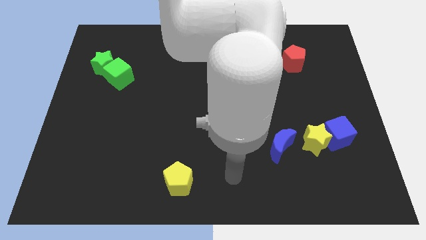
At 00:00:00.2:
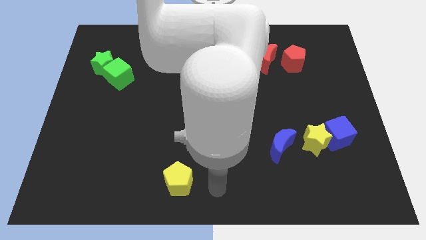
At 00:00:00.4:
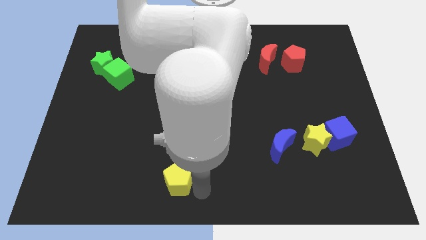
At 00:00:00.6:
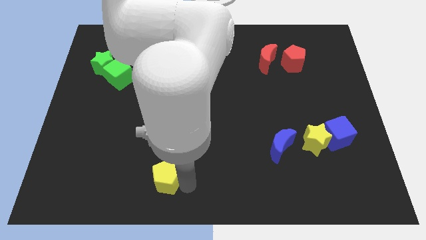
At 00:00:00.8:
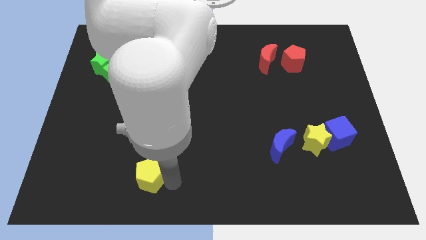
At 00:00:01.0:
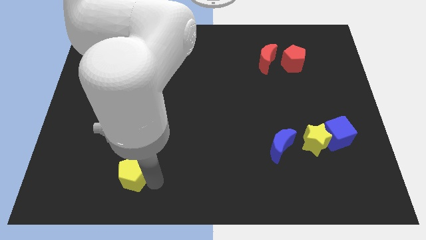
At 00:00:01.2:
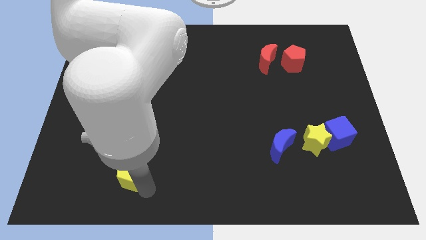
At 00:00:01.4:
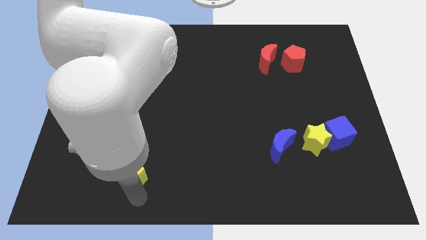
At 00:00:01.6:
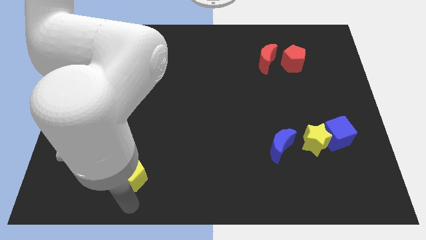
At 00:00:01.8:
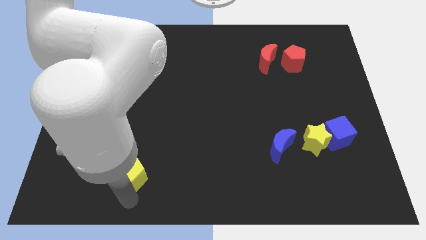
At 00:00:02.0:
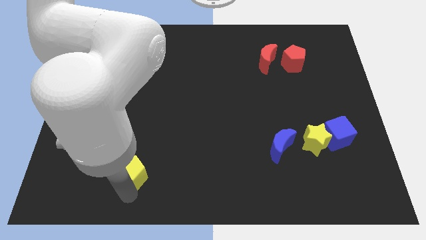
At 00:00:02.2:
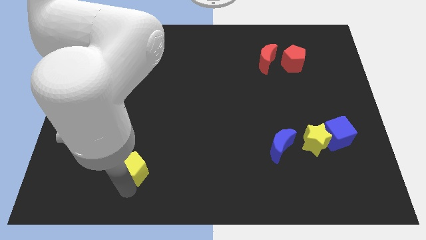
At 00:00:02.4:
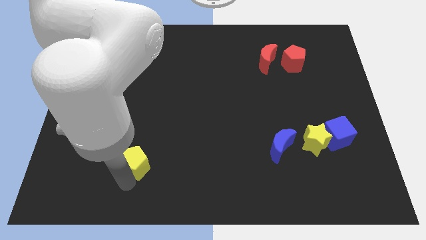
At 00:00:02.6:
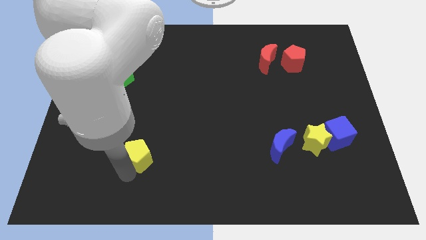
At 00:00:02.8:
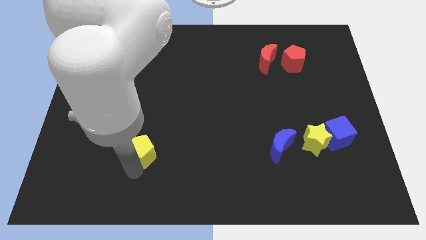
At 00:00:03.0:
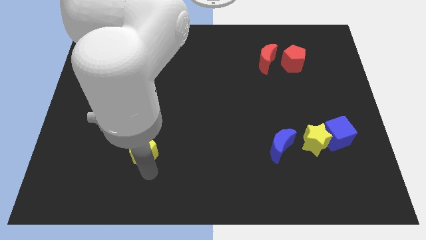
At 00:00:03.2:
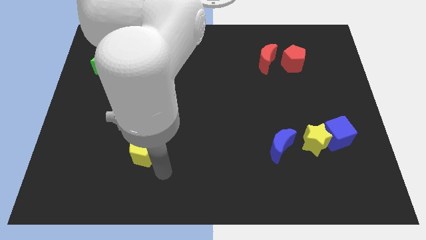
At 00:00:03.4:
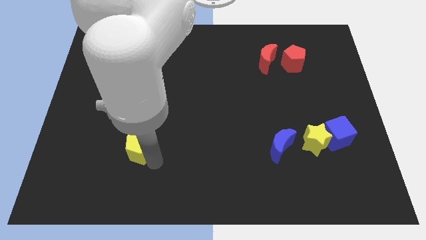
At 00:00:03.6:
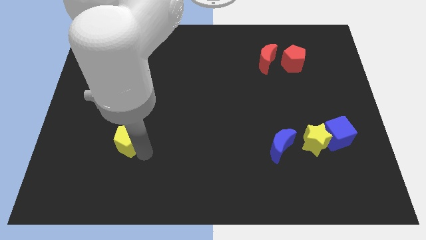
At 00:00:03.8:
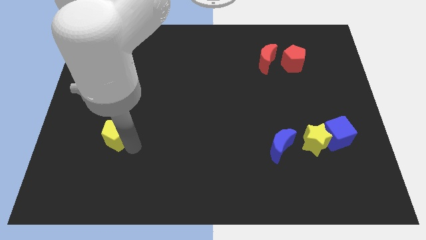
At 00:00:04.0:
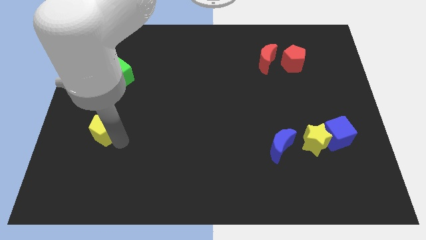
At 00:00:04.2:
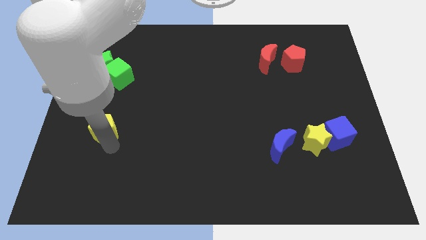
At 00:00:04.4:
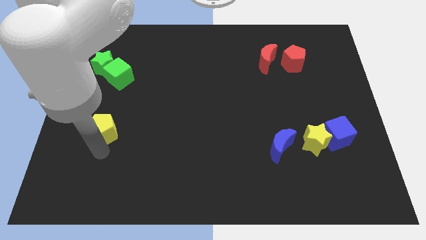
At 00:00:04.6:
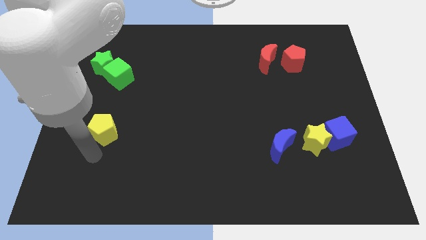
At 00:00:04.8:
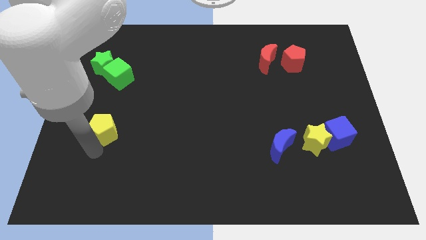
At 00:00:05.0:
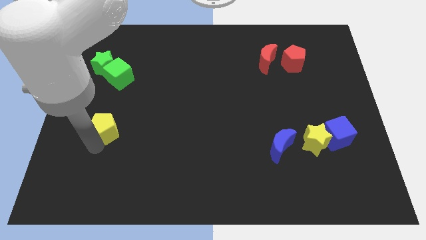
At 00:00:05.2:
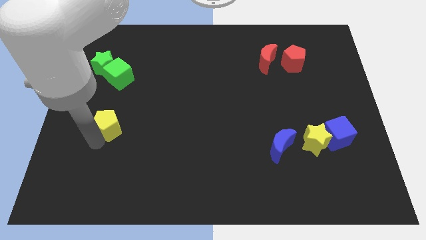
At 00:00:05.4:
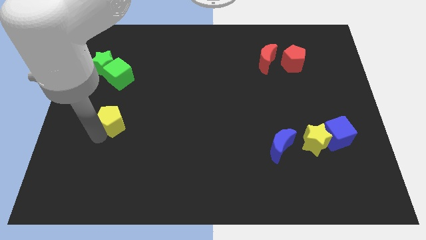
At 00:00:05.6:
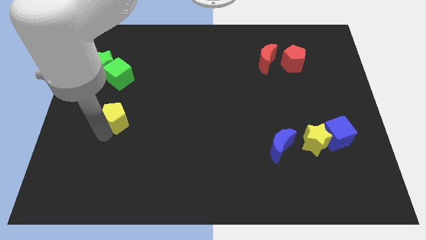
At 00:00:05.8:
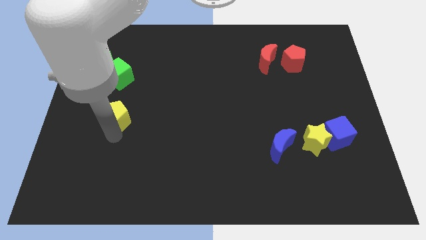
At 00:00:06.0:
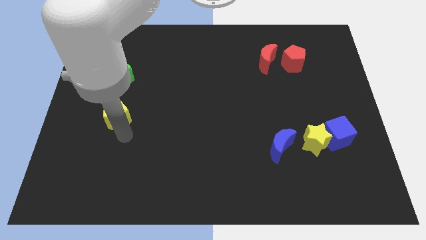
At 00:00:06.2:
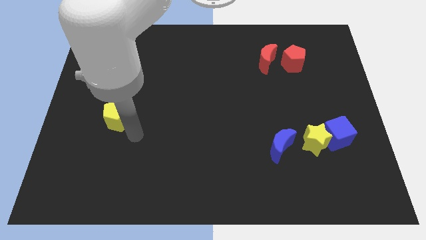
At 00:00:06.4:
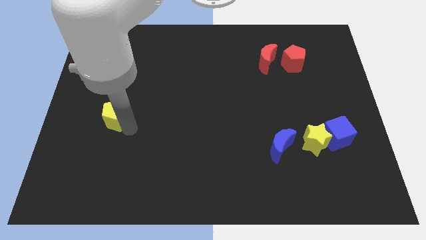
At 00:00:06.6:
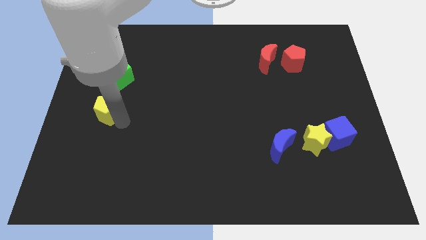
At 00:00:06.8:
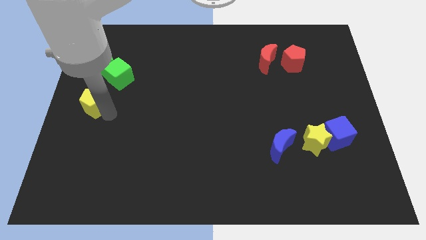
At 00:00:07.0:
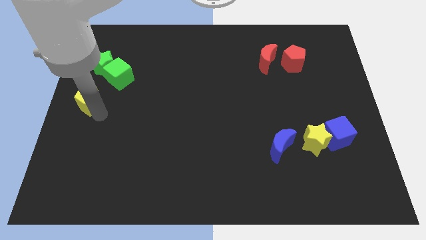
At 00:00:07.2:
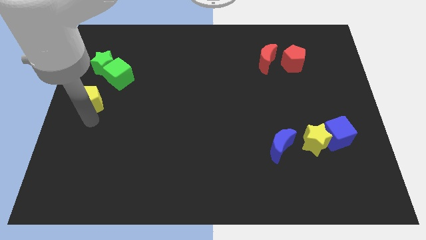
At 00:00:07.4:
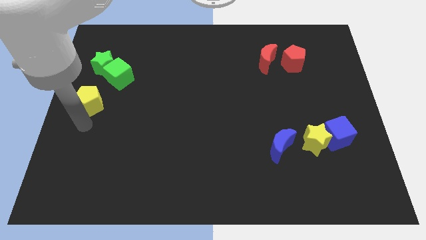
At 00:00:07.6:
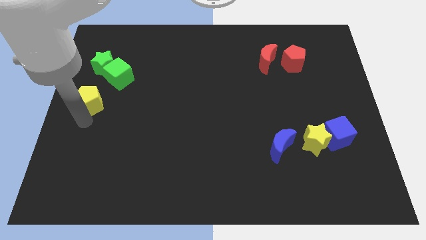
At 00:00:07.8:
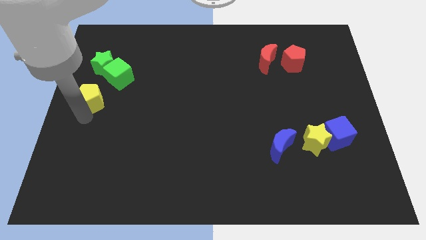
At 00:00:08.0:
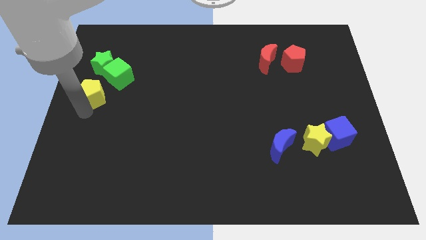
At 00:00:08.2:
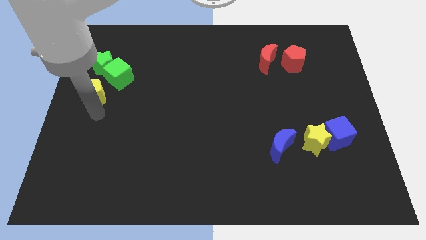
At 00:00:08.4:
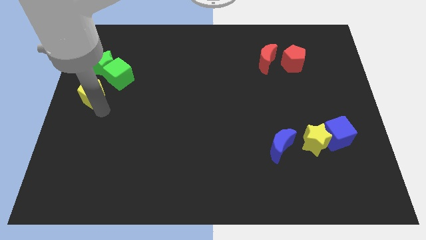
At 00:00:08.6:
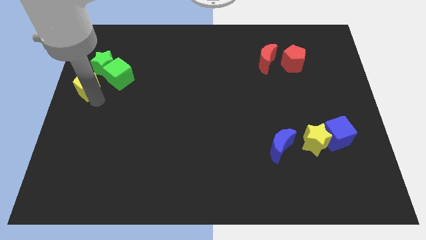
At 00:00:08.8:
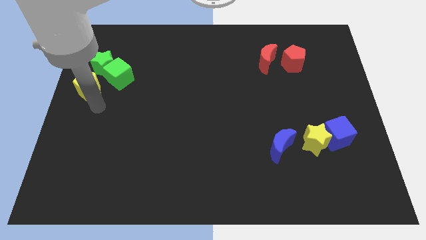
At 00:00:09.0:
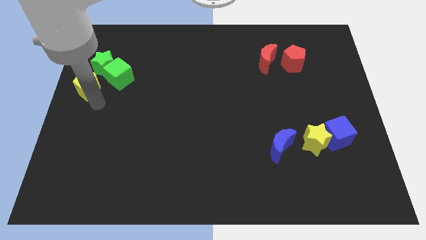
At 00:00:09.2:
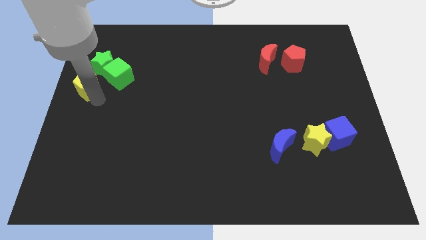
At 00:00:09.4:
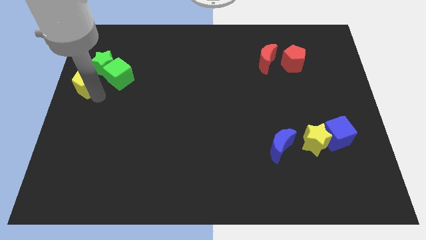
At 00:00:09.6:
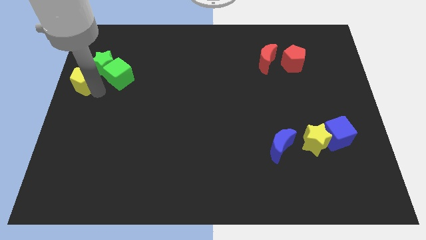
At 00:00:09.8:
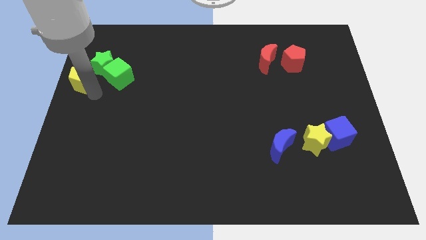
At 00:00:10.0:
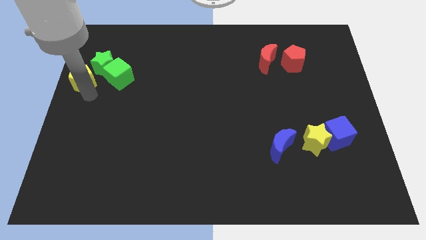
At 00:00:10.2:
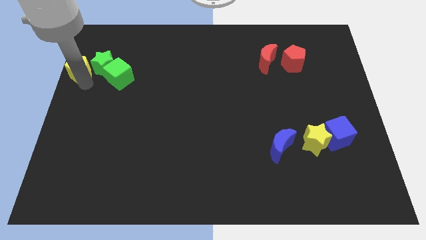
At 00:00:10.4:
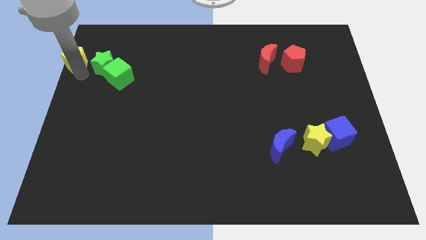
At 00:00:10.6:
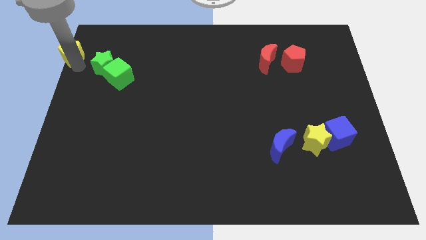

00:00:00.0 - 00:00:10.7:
slide the yellow pentagon to the top left of the board

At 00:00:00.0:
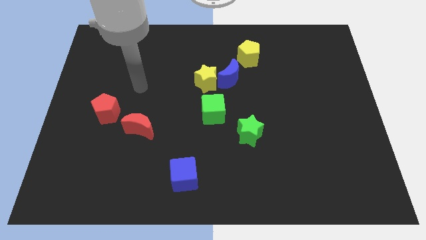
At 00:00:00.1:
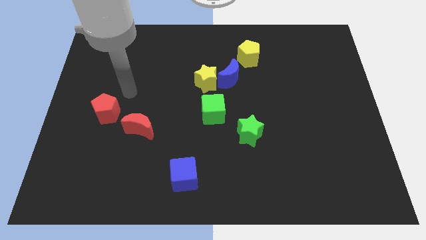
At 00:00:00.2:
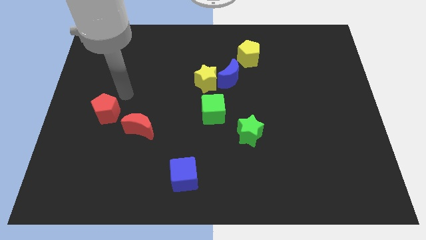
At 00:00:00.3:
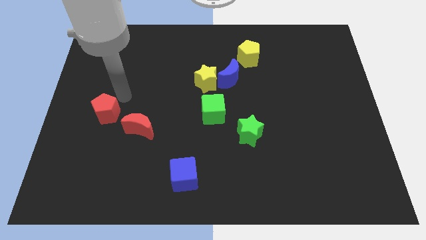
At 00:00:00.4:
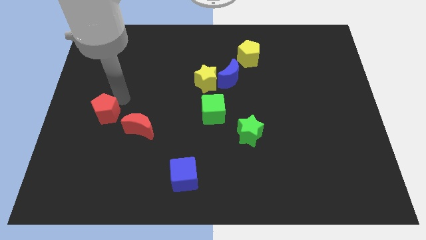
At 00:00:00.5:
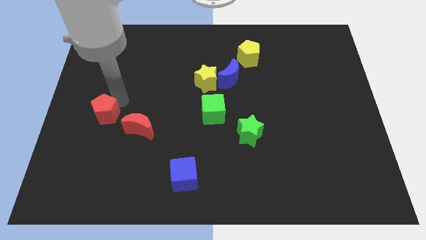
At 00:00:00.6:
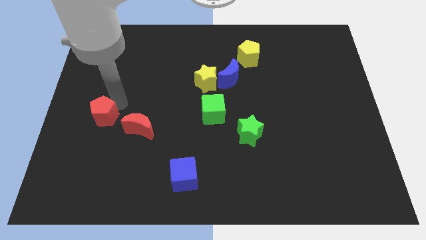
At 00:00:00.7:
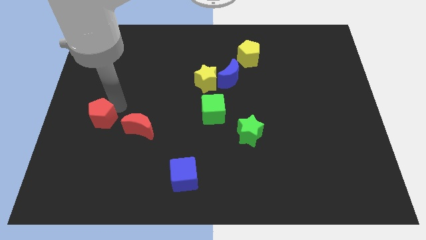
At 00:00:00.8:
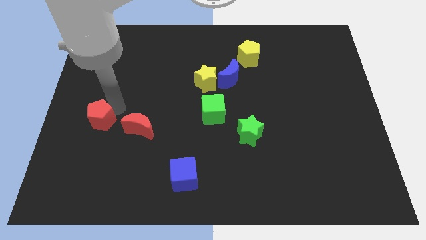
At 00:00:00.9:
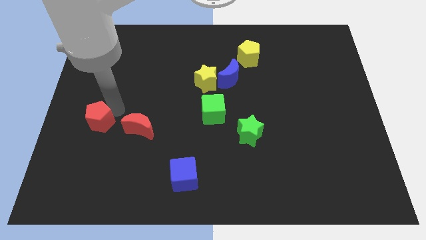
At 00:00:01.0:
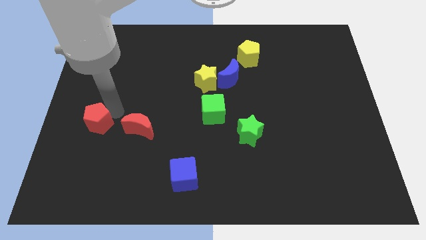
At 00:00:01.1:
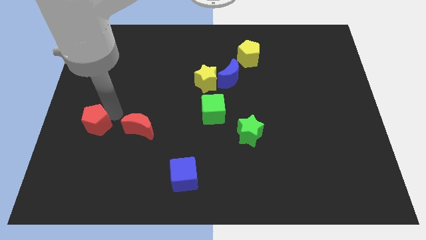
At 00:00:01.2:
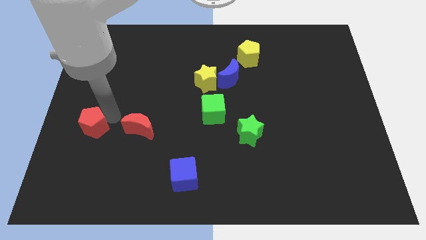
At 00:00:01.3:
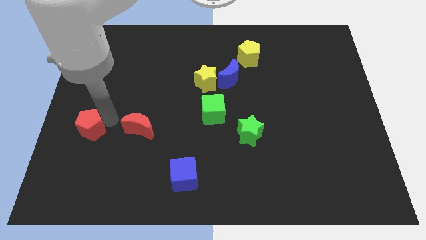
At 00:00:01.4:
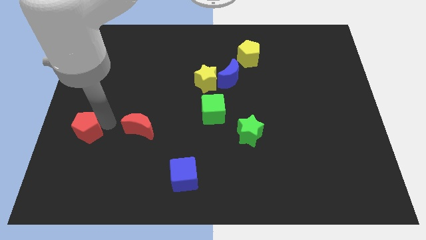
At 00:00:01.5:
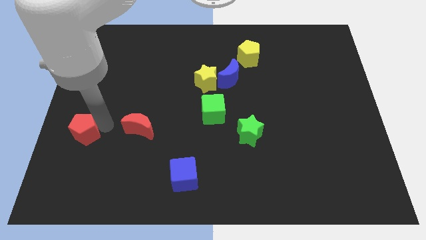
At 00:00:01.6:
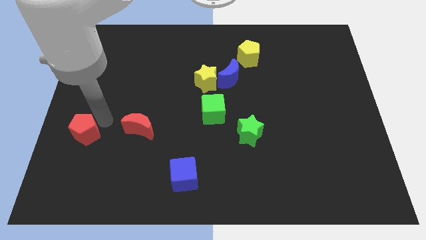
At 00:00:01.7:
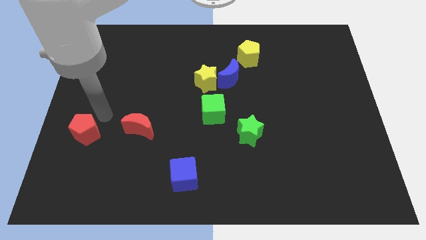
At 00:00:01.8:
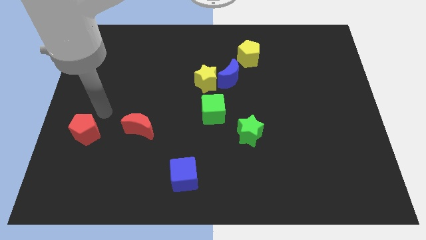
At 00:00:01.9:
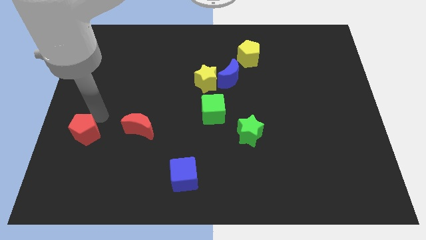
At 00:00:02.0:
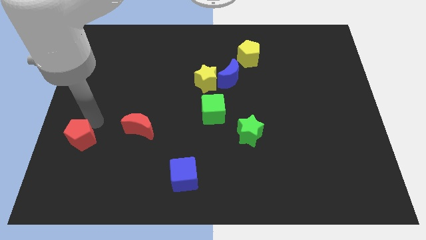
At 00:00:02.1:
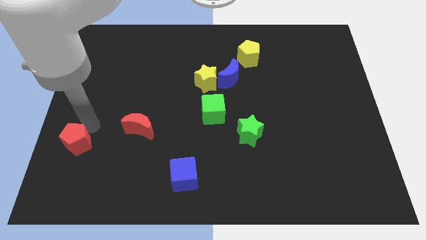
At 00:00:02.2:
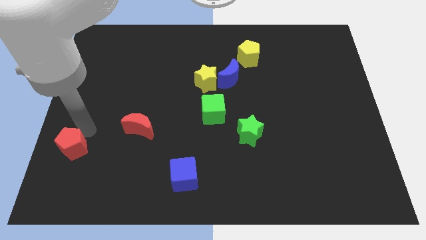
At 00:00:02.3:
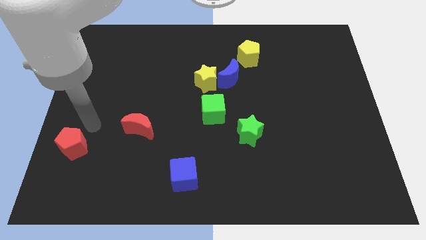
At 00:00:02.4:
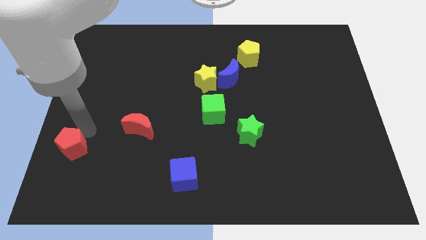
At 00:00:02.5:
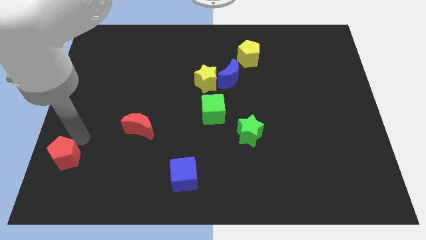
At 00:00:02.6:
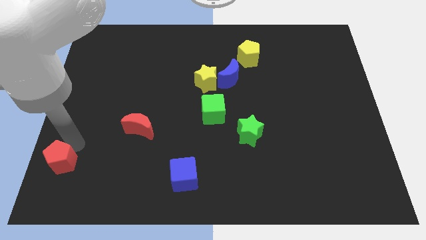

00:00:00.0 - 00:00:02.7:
slide the red pentagon to the bottom left
